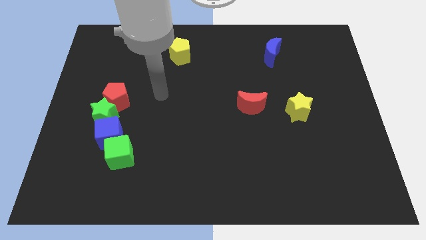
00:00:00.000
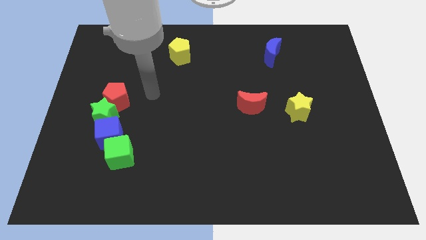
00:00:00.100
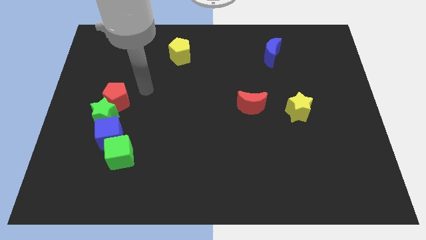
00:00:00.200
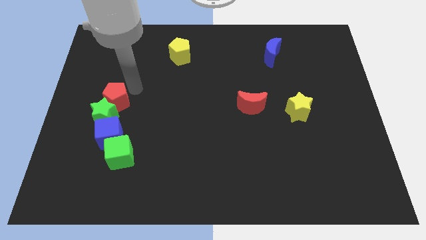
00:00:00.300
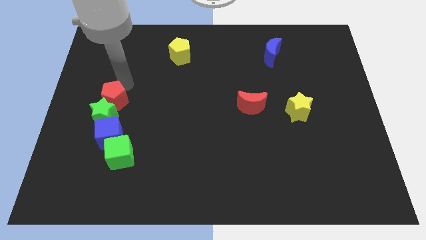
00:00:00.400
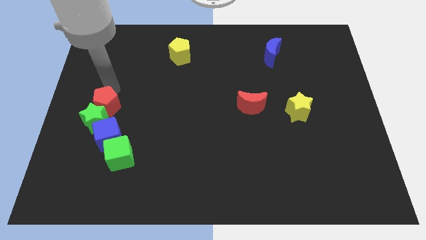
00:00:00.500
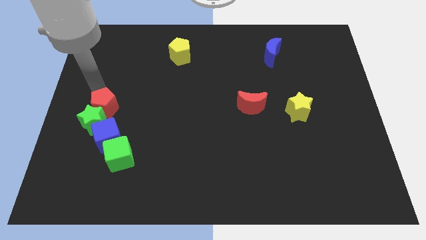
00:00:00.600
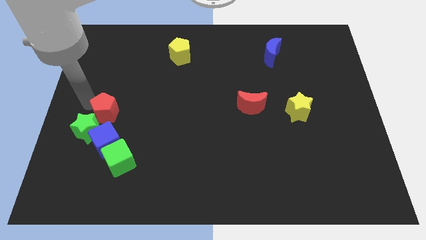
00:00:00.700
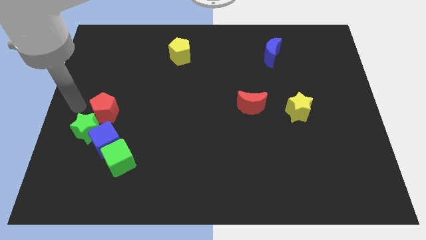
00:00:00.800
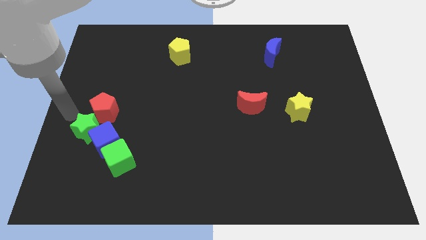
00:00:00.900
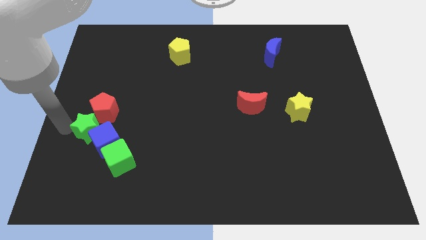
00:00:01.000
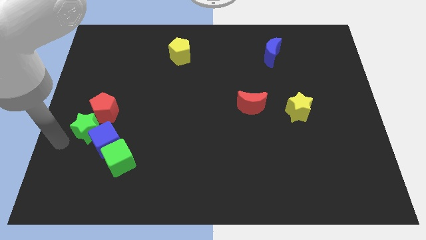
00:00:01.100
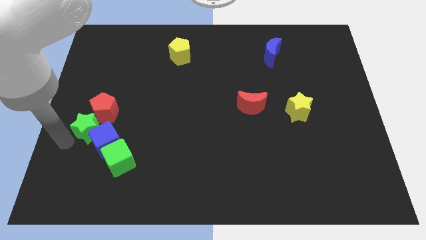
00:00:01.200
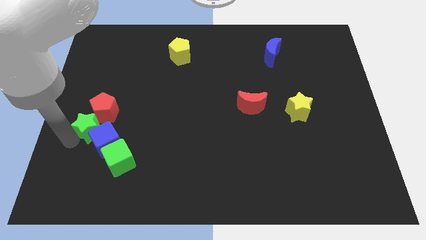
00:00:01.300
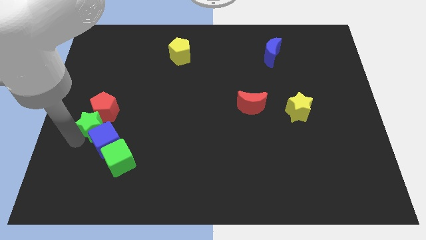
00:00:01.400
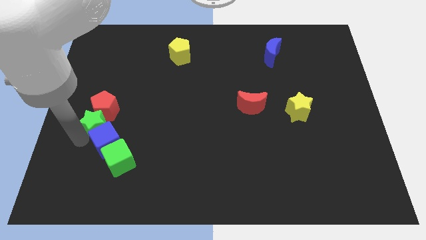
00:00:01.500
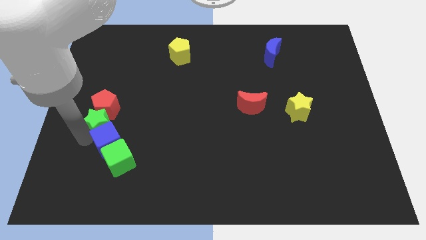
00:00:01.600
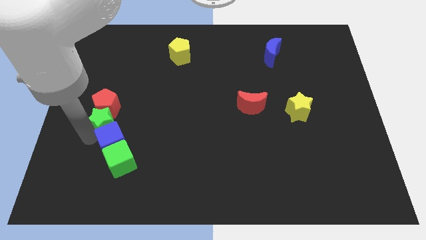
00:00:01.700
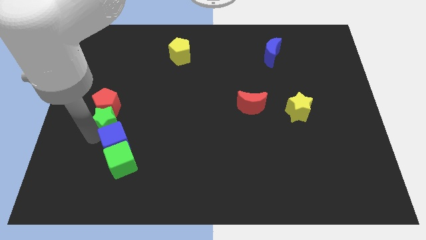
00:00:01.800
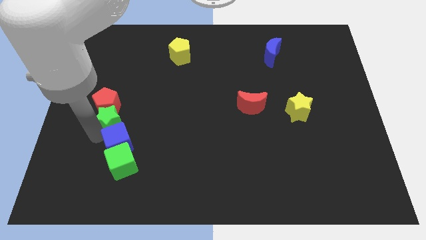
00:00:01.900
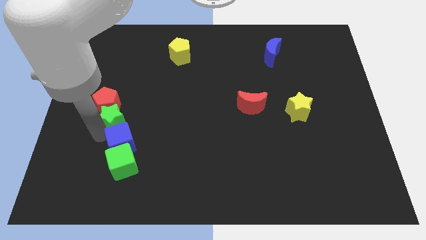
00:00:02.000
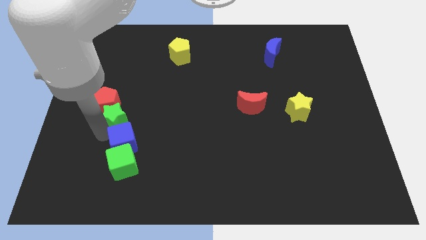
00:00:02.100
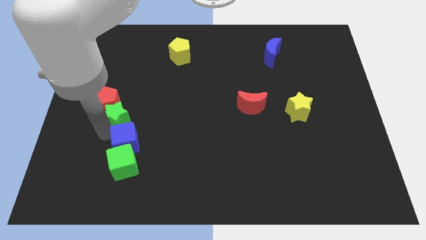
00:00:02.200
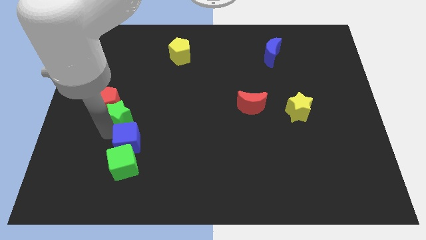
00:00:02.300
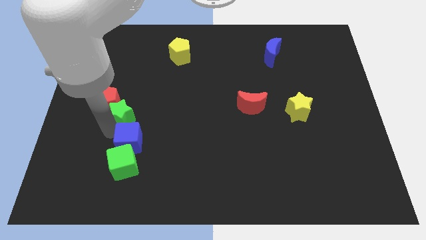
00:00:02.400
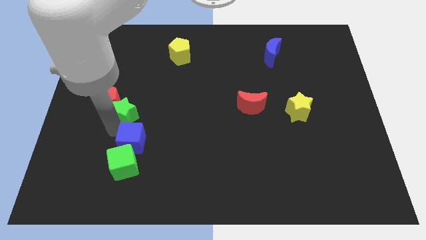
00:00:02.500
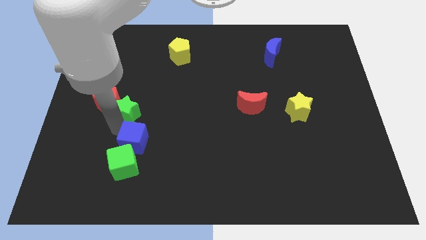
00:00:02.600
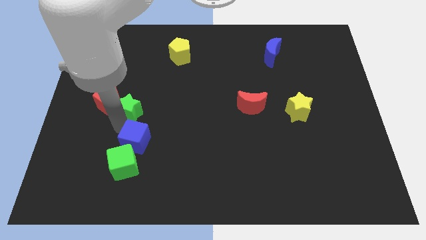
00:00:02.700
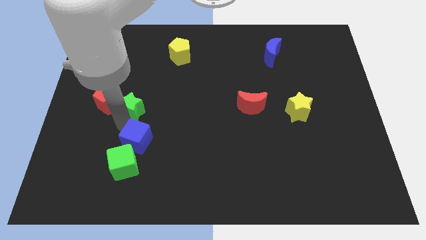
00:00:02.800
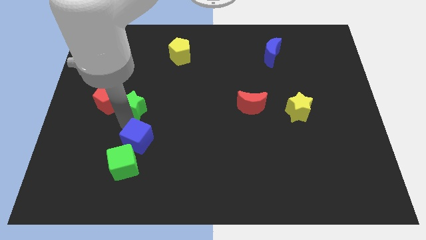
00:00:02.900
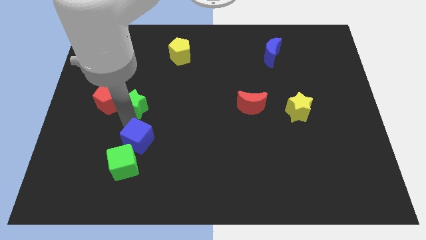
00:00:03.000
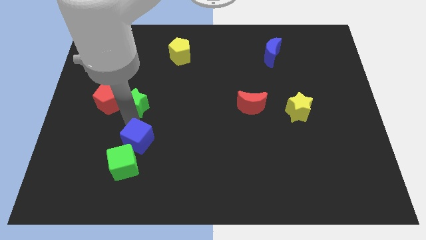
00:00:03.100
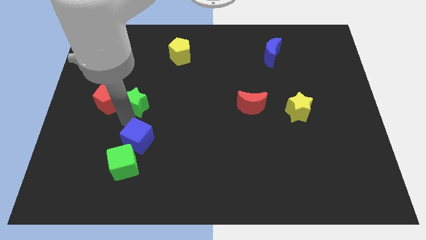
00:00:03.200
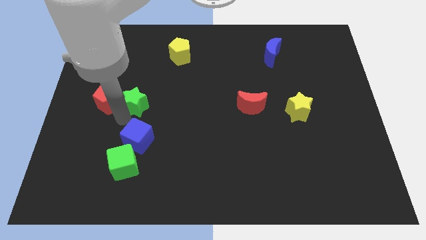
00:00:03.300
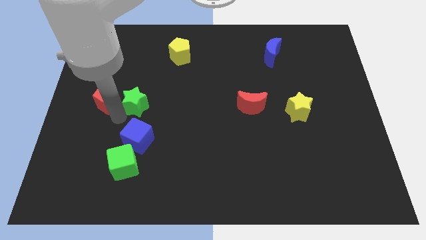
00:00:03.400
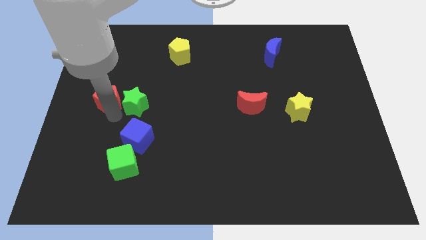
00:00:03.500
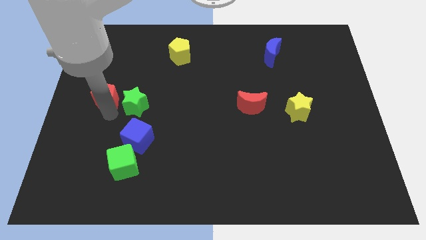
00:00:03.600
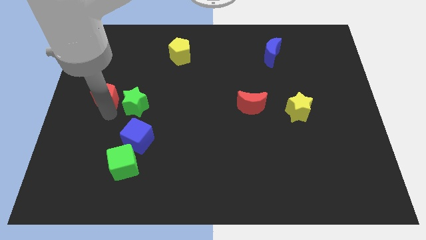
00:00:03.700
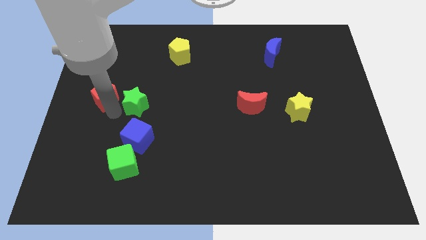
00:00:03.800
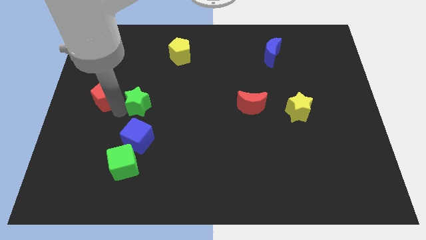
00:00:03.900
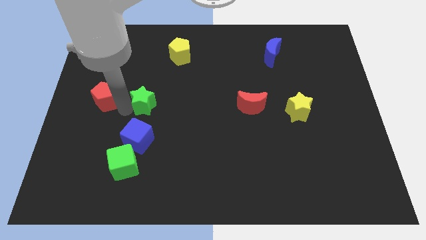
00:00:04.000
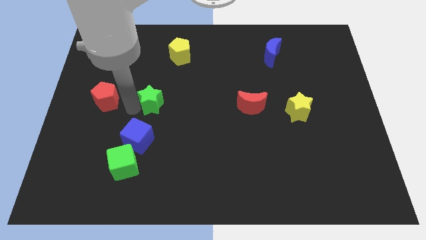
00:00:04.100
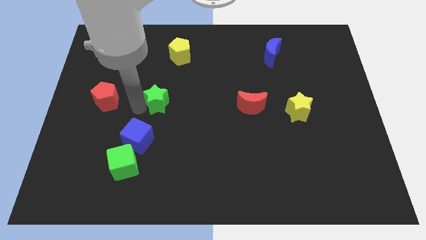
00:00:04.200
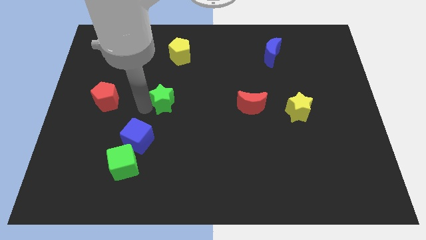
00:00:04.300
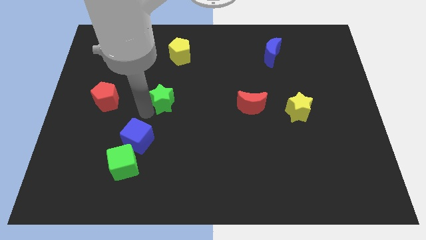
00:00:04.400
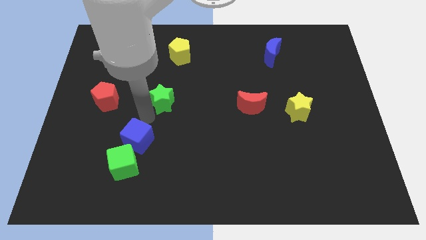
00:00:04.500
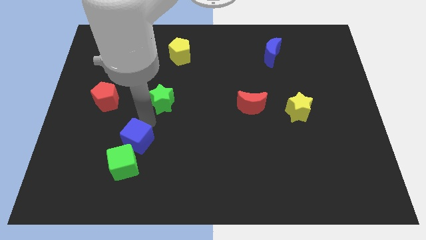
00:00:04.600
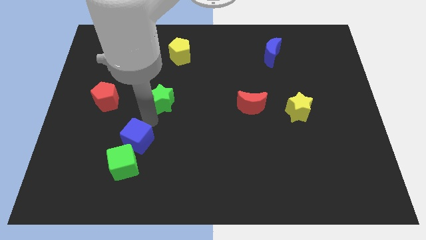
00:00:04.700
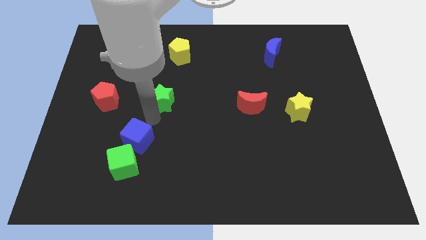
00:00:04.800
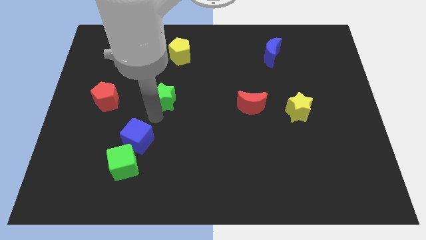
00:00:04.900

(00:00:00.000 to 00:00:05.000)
move the green star to the bottom side of the yellow pentagon

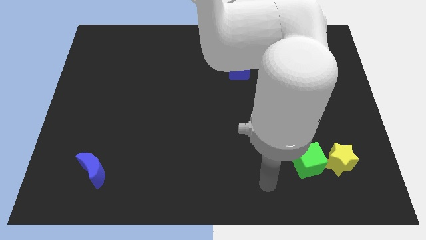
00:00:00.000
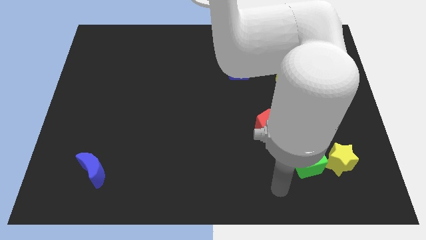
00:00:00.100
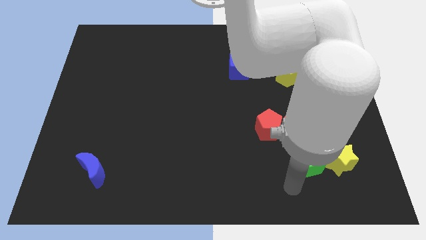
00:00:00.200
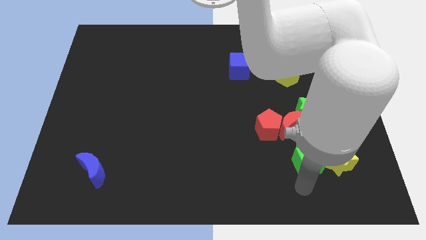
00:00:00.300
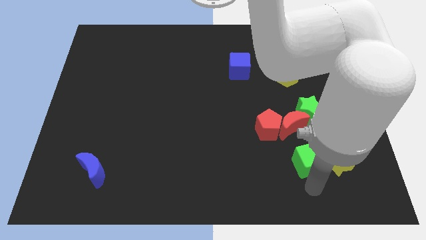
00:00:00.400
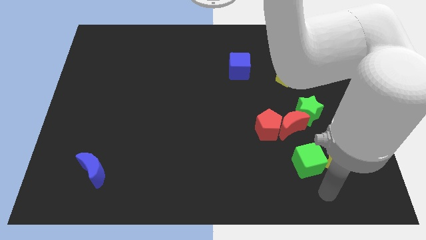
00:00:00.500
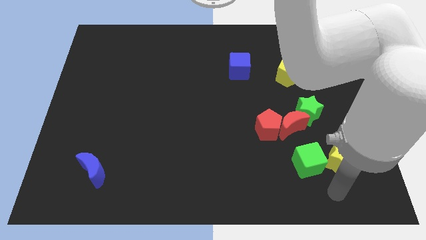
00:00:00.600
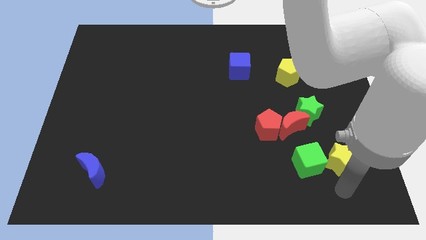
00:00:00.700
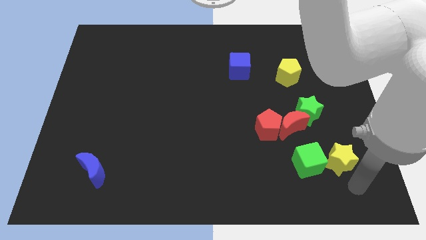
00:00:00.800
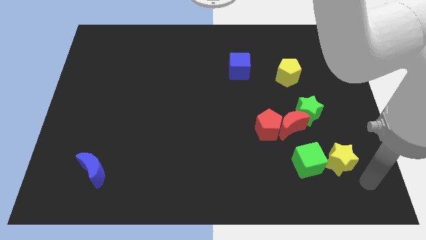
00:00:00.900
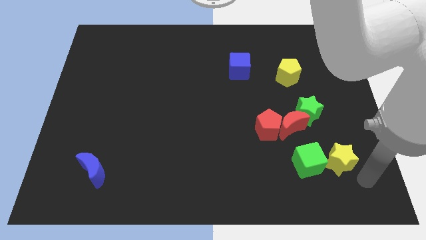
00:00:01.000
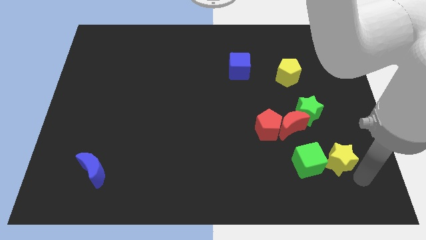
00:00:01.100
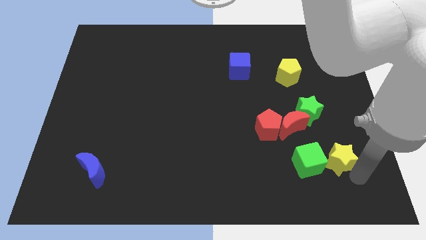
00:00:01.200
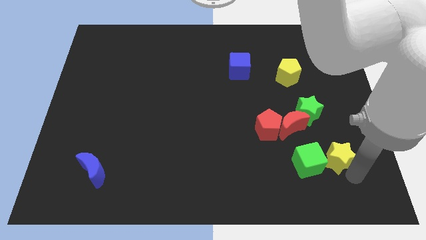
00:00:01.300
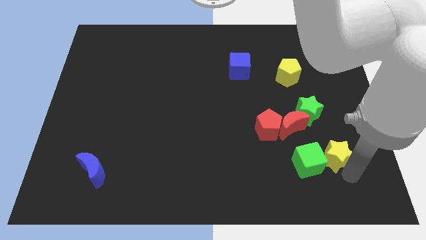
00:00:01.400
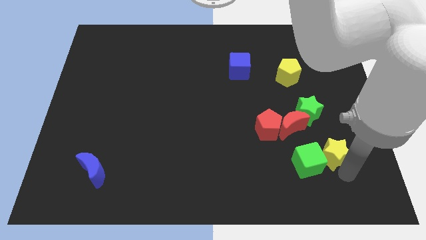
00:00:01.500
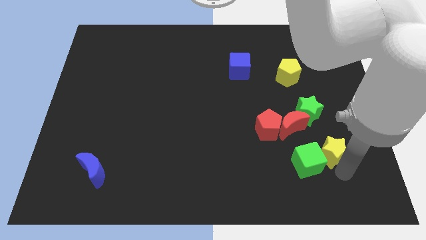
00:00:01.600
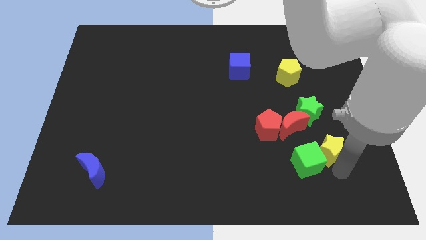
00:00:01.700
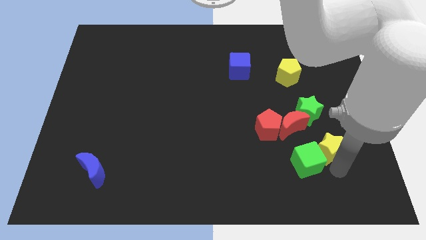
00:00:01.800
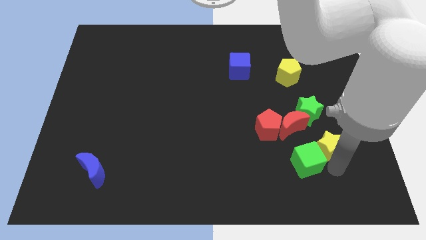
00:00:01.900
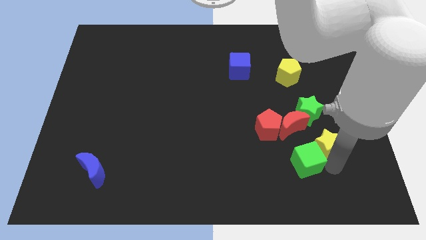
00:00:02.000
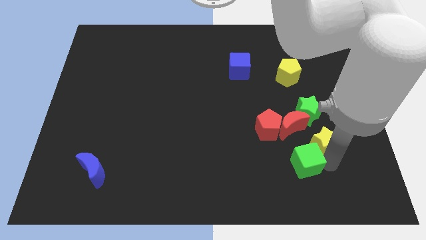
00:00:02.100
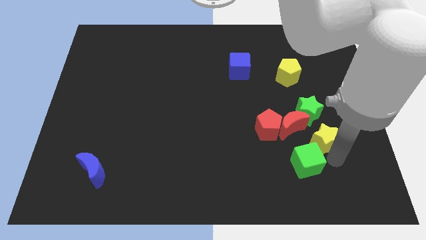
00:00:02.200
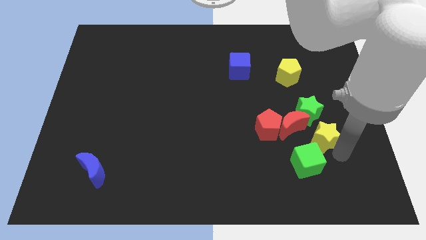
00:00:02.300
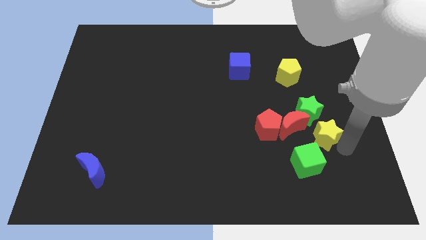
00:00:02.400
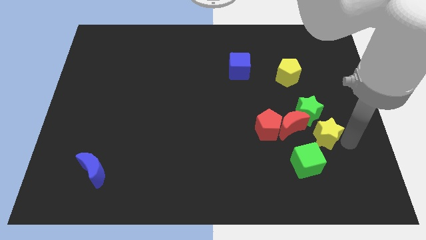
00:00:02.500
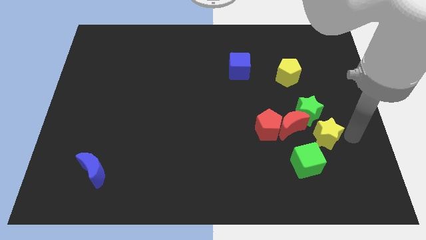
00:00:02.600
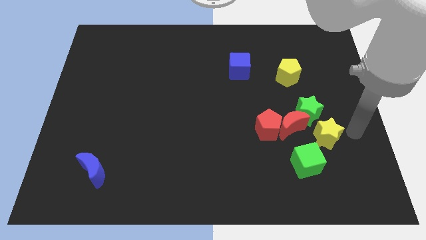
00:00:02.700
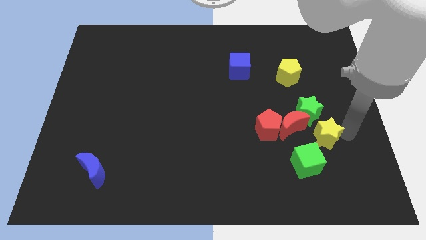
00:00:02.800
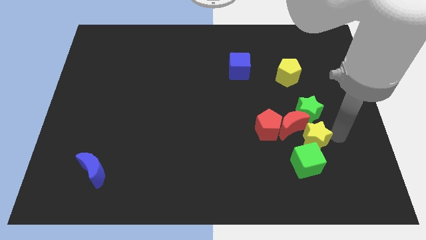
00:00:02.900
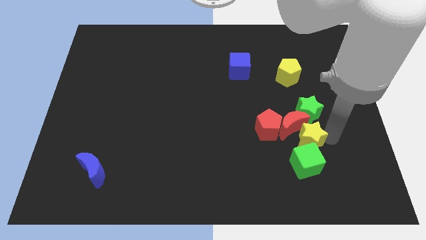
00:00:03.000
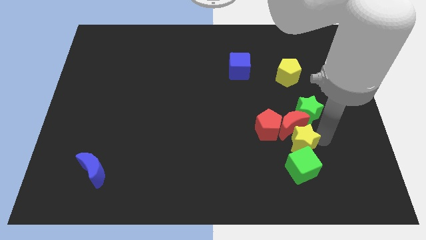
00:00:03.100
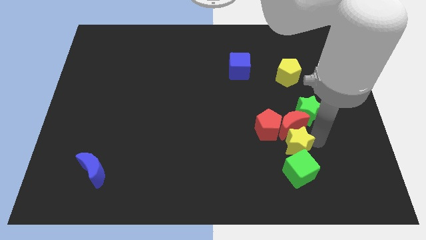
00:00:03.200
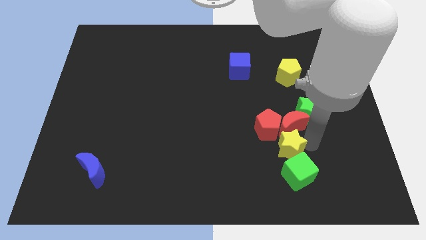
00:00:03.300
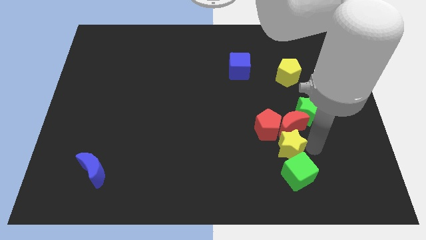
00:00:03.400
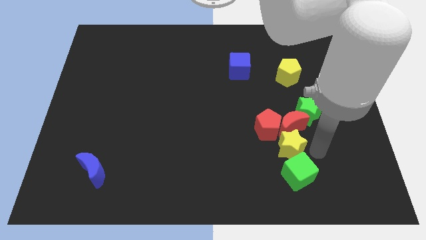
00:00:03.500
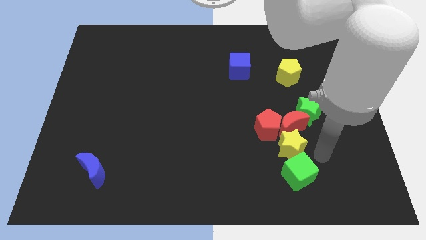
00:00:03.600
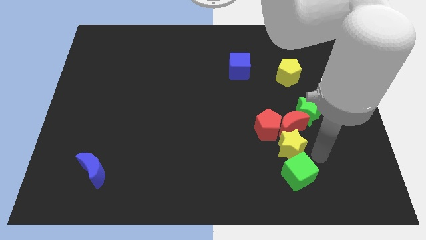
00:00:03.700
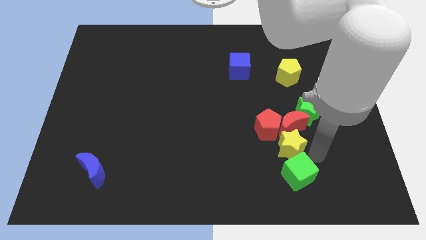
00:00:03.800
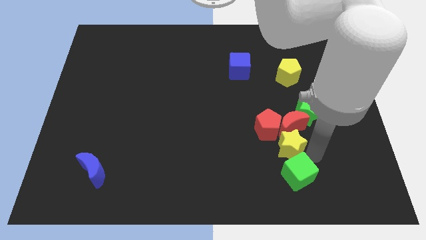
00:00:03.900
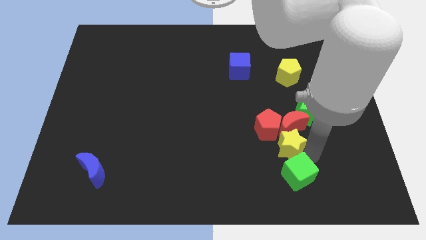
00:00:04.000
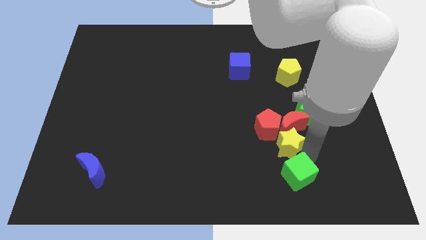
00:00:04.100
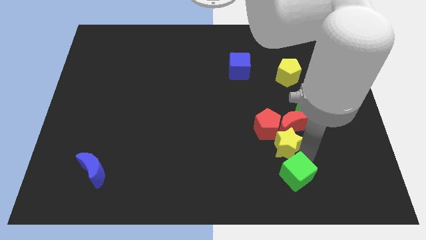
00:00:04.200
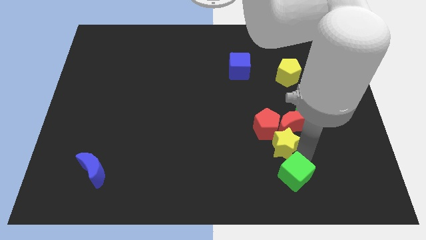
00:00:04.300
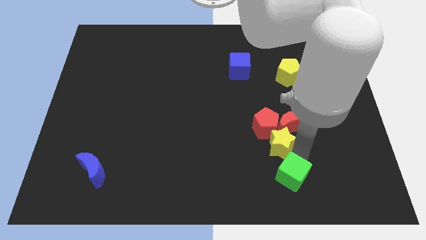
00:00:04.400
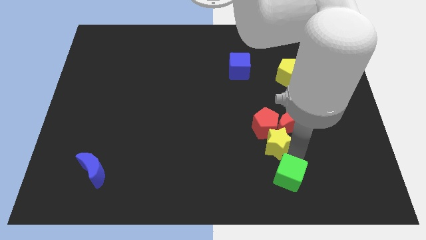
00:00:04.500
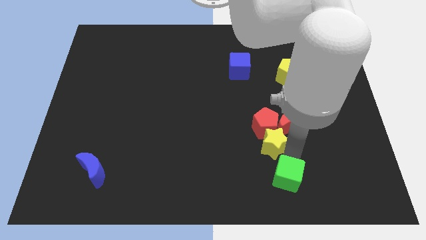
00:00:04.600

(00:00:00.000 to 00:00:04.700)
push the yellow star diagonally down and to the left of the red pentagon
